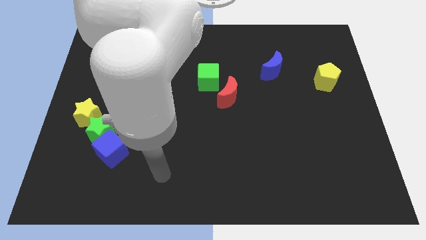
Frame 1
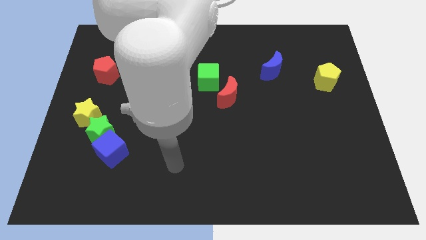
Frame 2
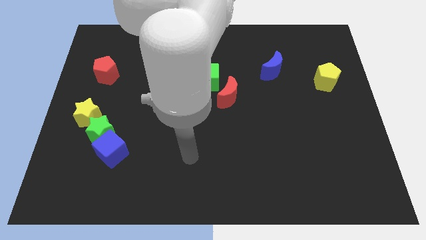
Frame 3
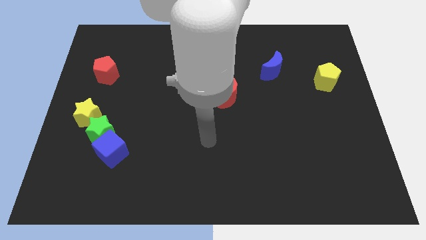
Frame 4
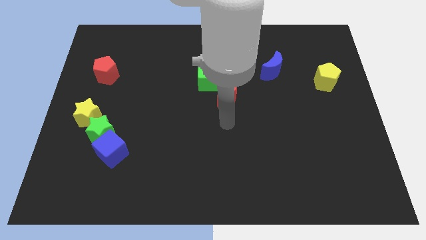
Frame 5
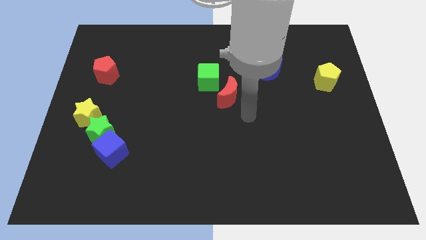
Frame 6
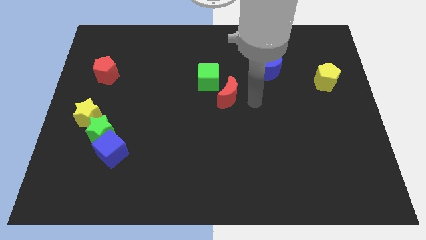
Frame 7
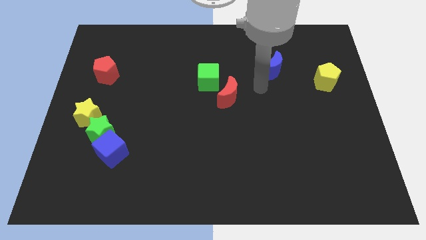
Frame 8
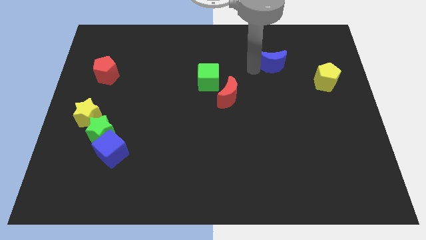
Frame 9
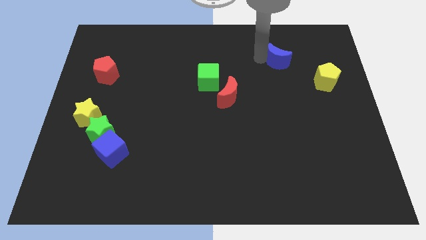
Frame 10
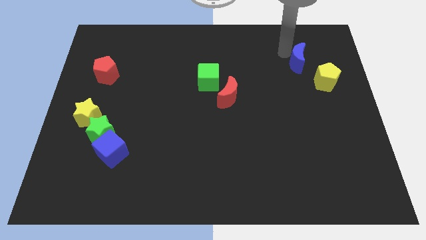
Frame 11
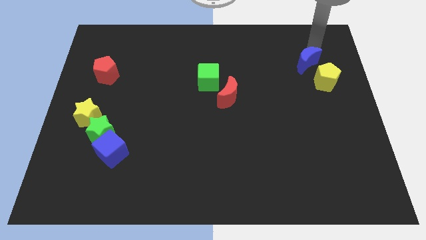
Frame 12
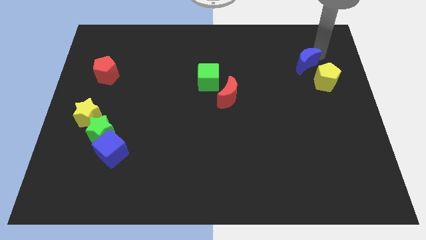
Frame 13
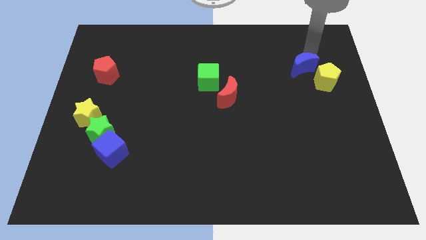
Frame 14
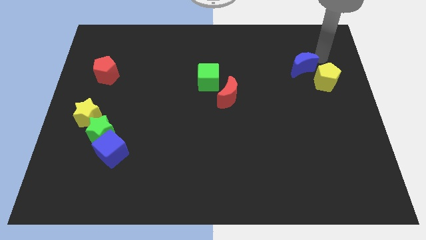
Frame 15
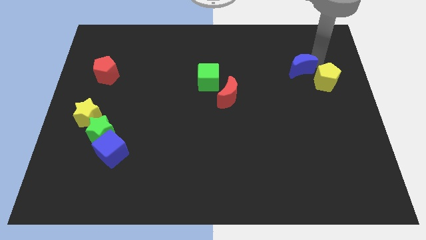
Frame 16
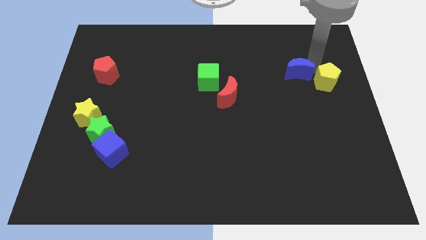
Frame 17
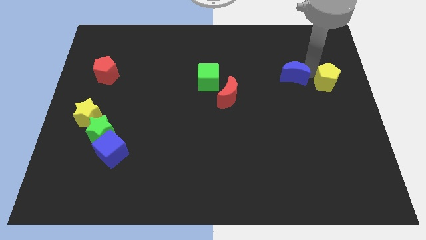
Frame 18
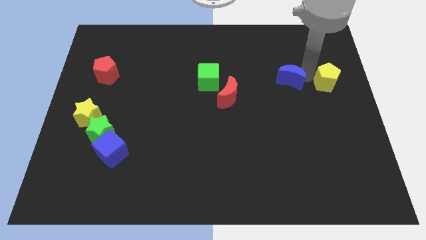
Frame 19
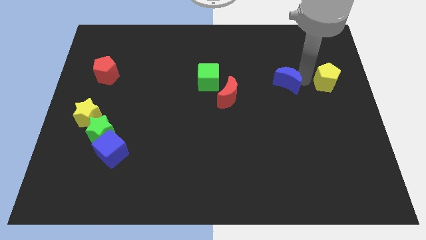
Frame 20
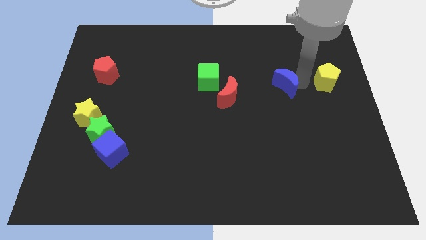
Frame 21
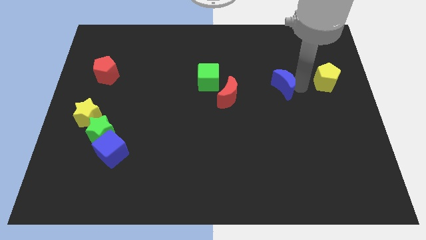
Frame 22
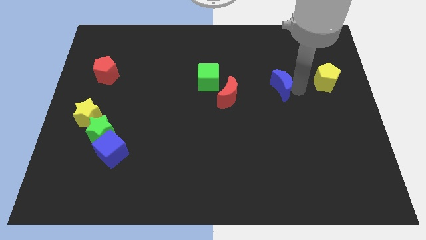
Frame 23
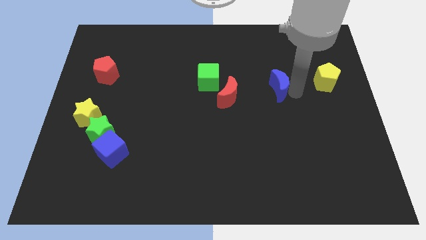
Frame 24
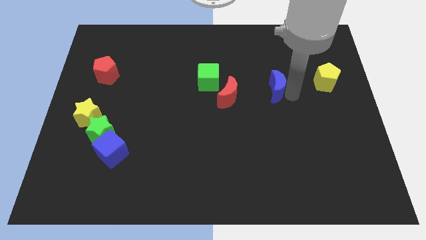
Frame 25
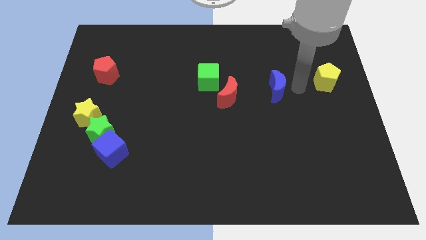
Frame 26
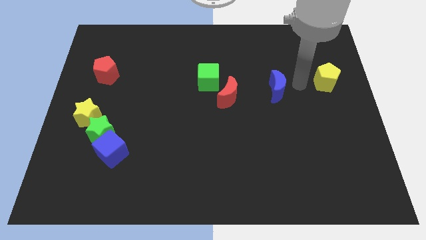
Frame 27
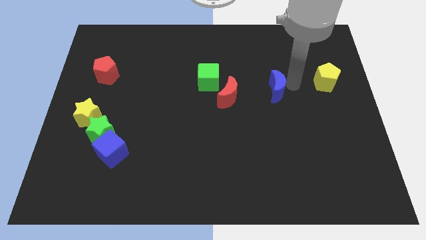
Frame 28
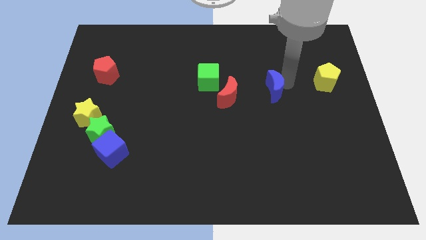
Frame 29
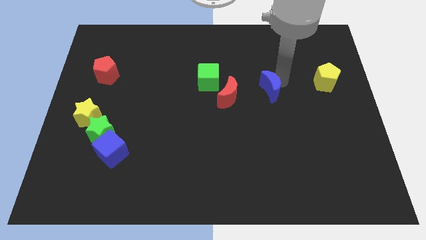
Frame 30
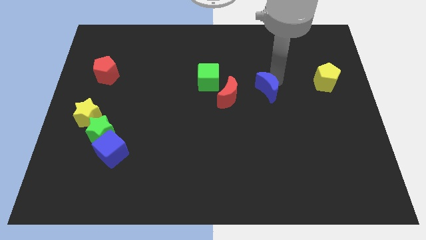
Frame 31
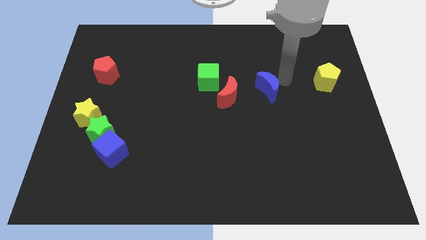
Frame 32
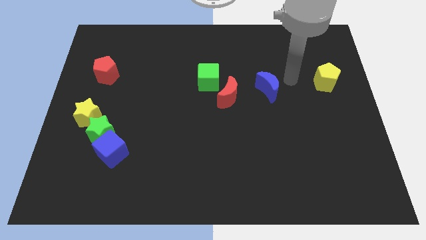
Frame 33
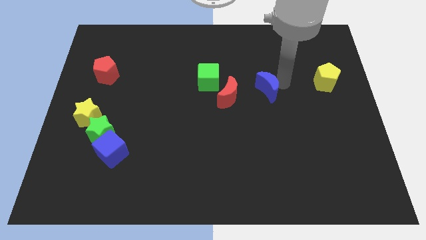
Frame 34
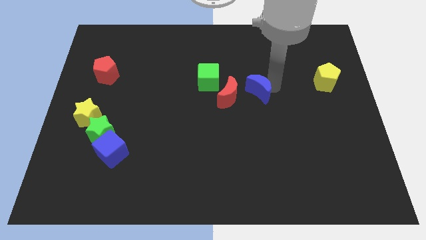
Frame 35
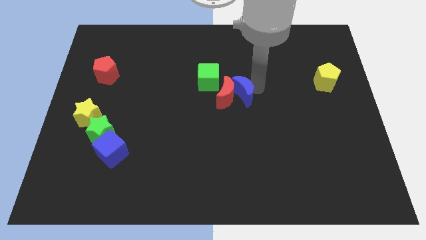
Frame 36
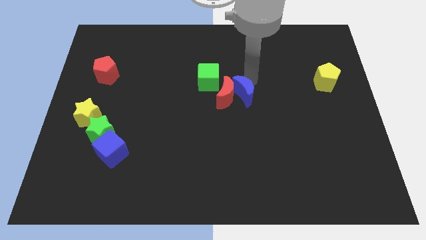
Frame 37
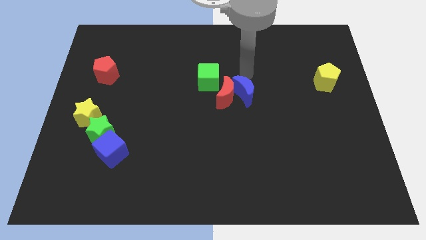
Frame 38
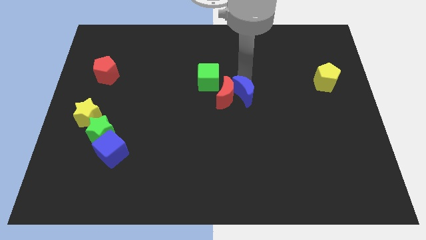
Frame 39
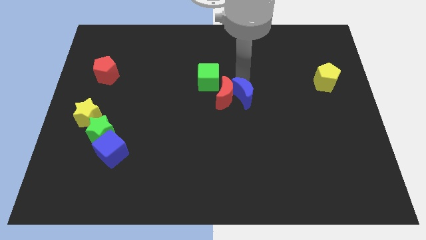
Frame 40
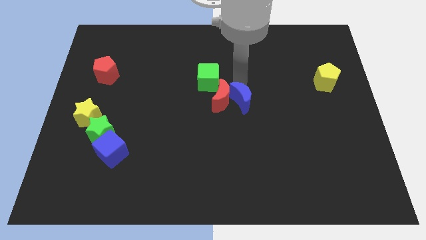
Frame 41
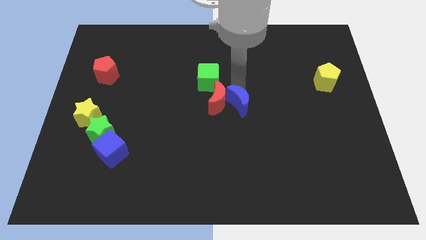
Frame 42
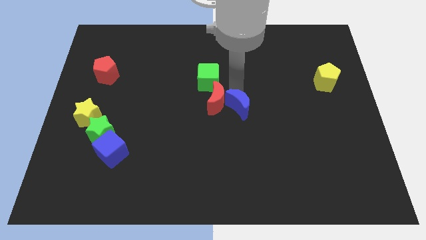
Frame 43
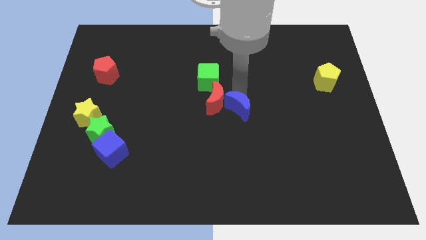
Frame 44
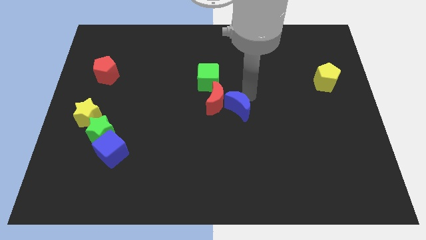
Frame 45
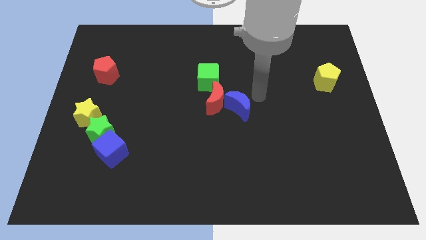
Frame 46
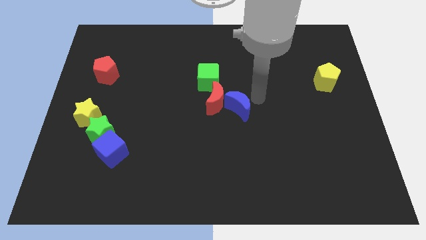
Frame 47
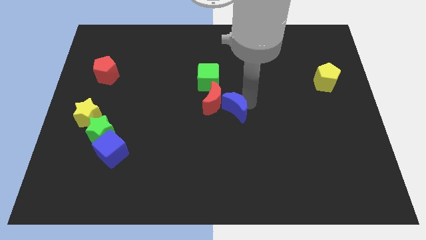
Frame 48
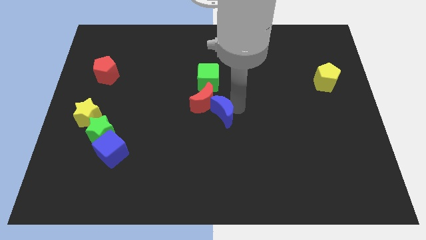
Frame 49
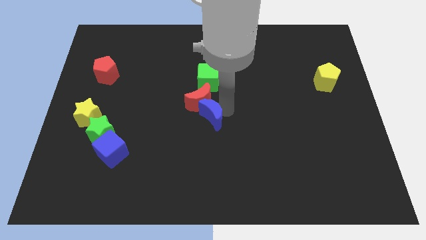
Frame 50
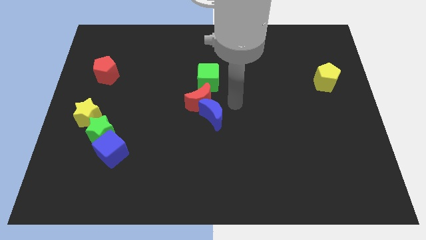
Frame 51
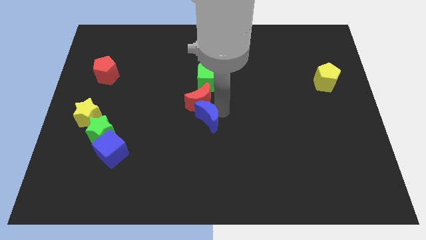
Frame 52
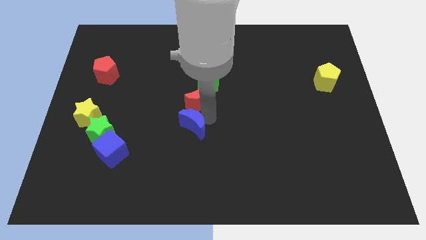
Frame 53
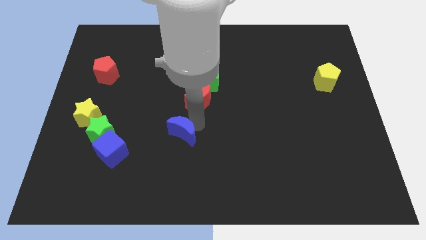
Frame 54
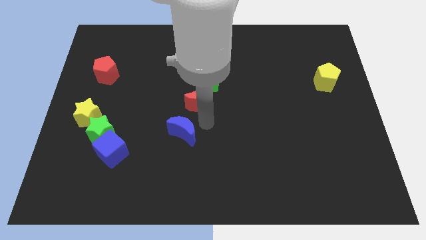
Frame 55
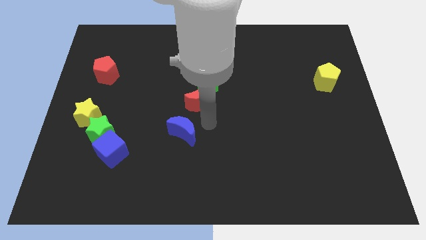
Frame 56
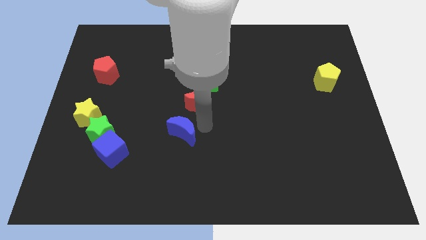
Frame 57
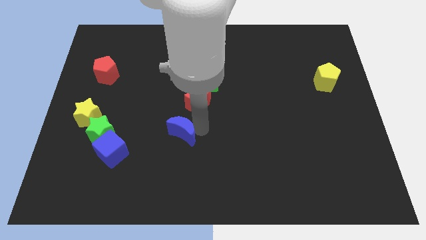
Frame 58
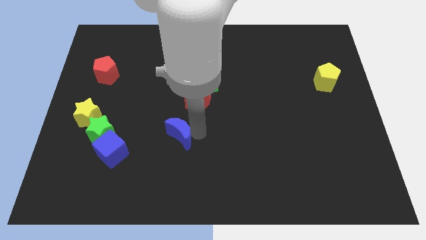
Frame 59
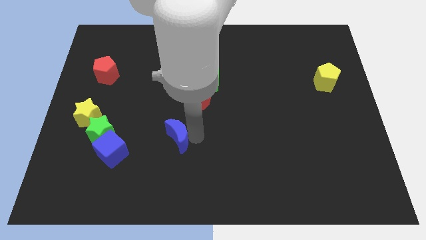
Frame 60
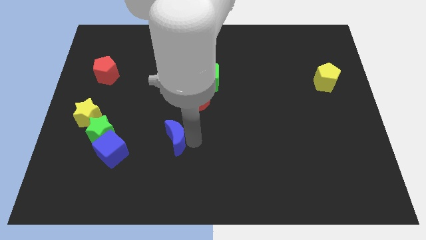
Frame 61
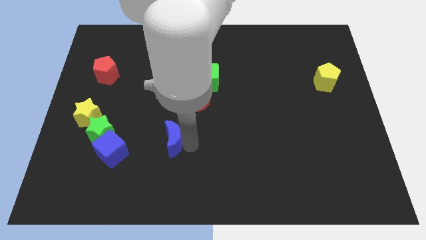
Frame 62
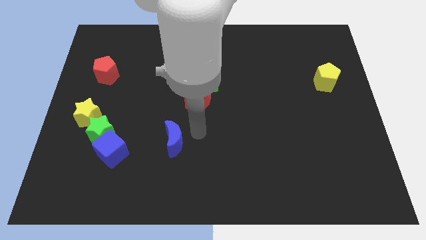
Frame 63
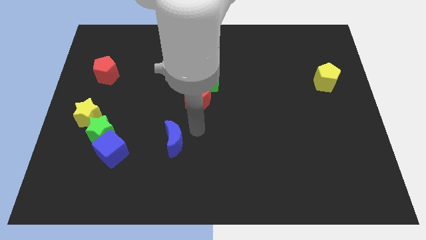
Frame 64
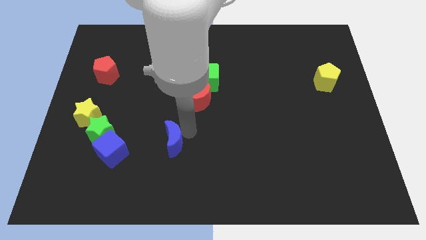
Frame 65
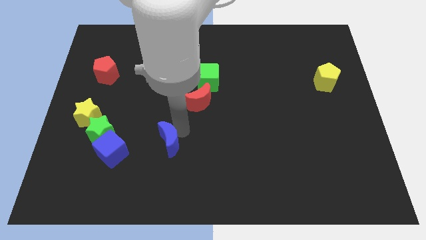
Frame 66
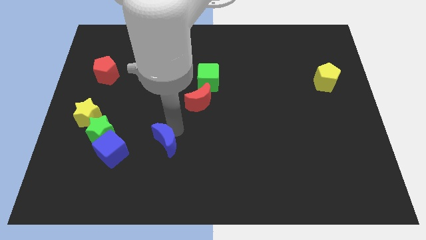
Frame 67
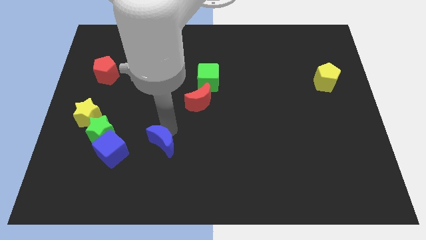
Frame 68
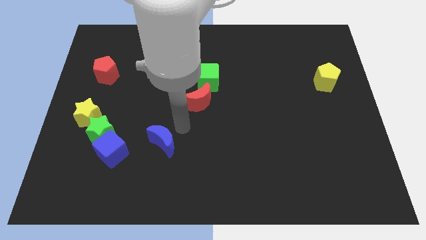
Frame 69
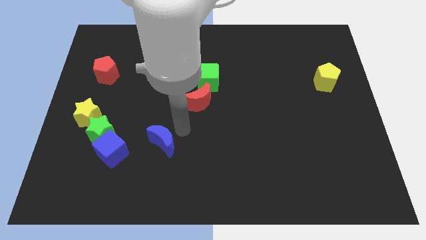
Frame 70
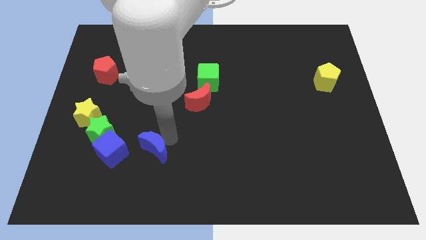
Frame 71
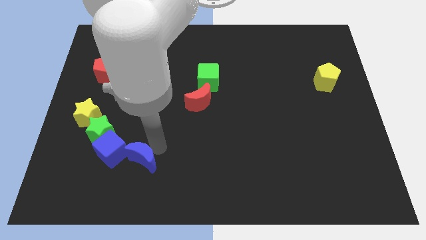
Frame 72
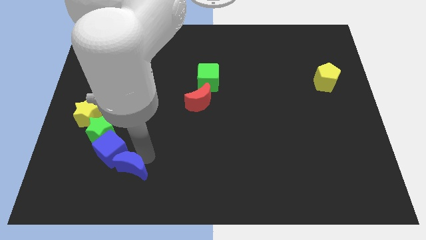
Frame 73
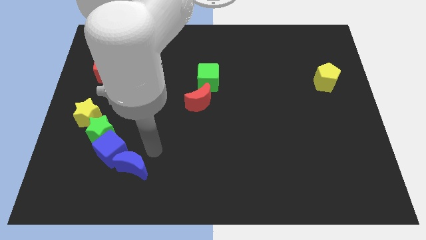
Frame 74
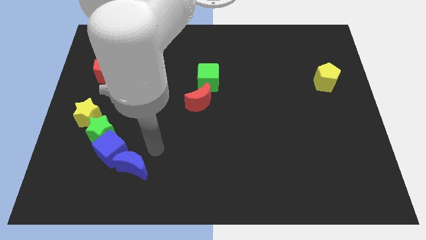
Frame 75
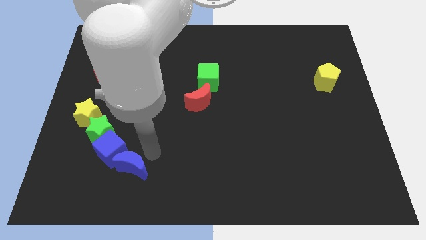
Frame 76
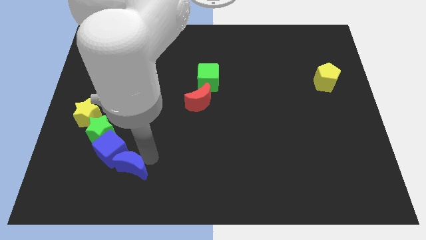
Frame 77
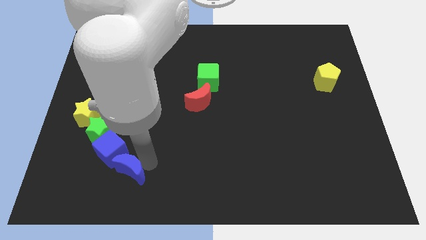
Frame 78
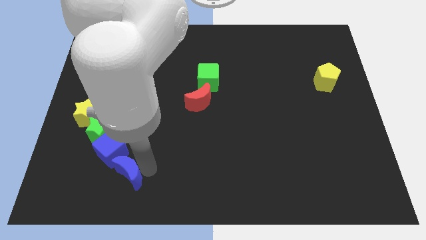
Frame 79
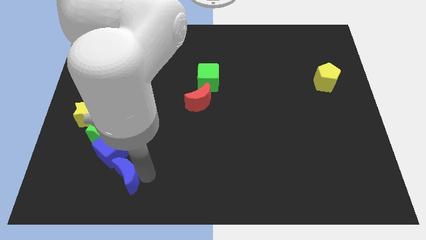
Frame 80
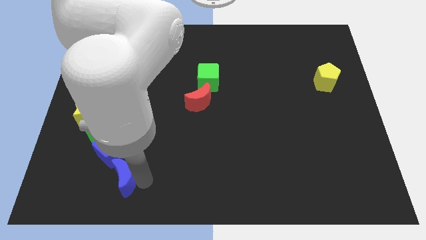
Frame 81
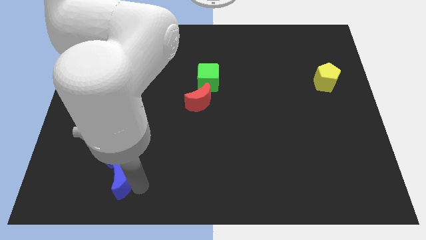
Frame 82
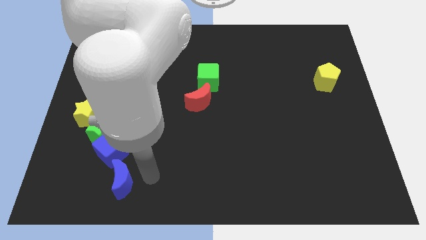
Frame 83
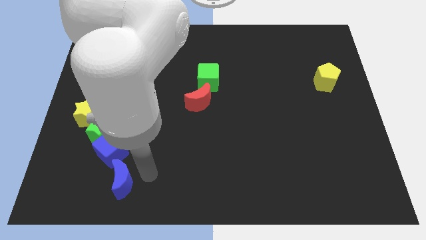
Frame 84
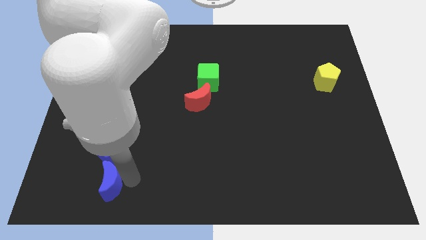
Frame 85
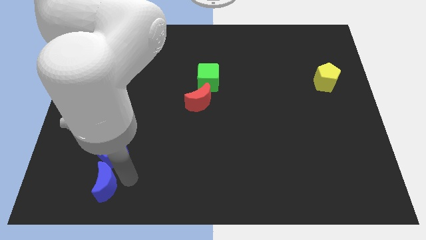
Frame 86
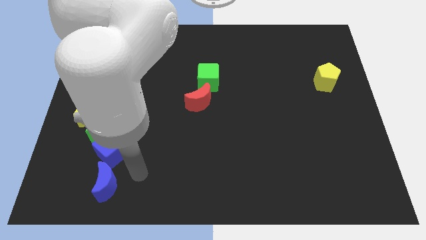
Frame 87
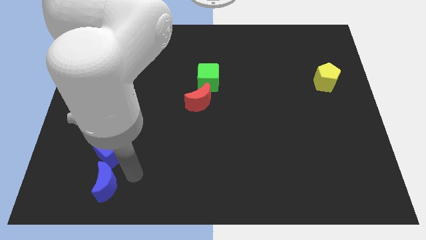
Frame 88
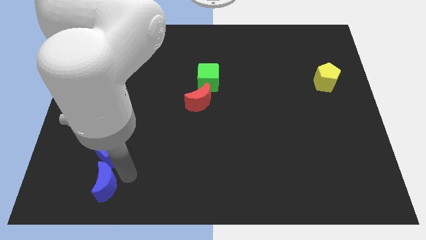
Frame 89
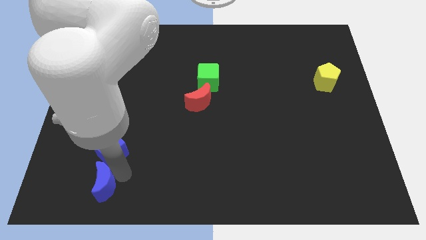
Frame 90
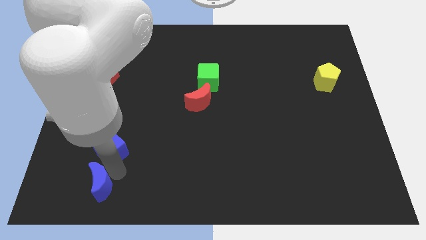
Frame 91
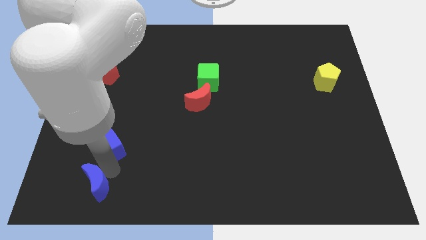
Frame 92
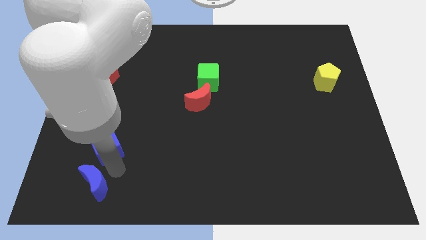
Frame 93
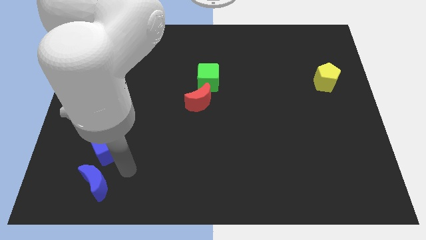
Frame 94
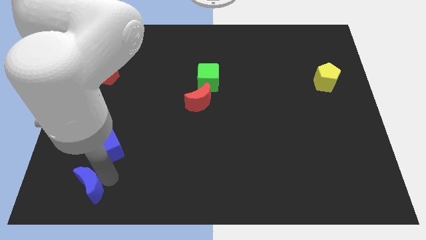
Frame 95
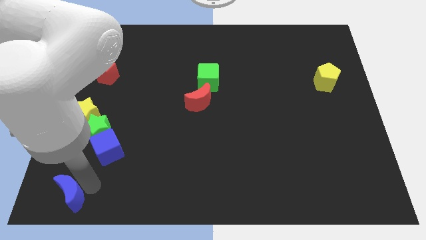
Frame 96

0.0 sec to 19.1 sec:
move the blue moon to the bottom left
